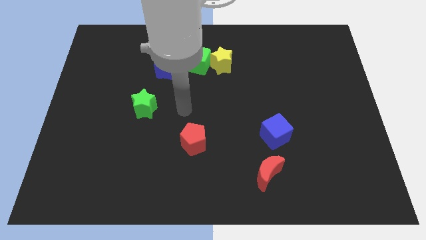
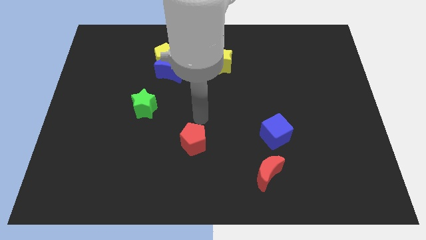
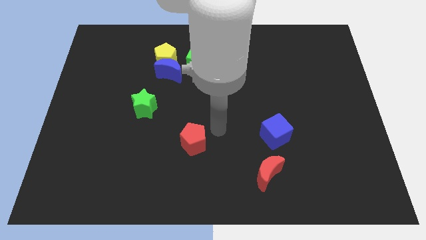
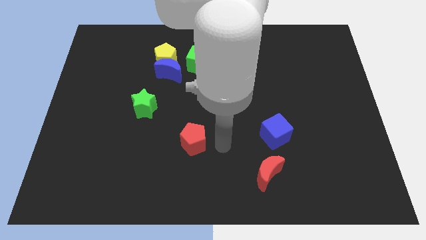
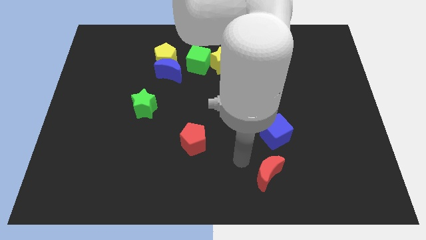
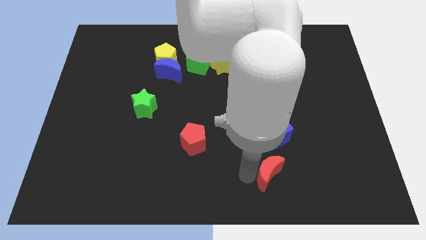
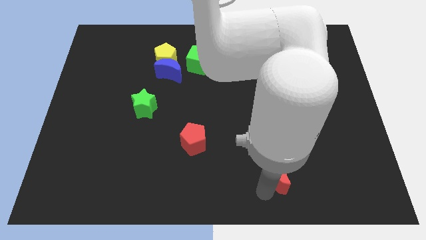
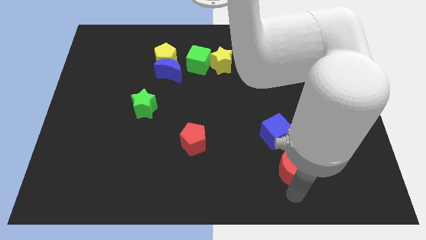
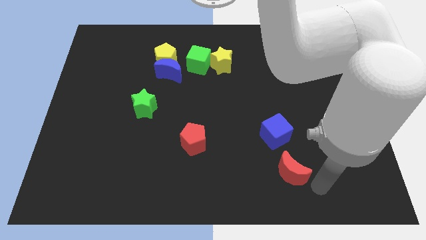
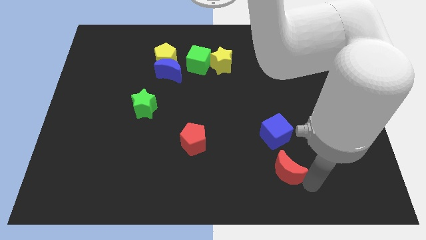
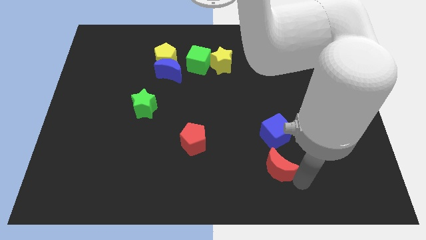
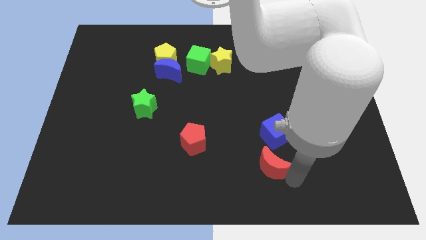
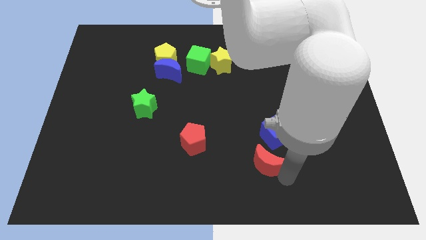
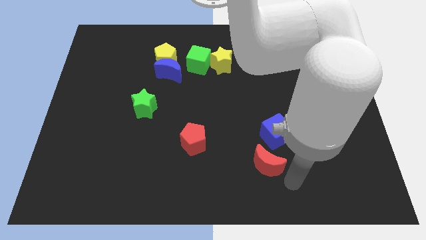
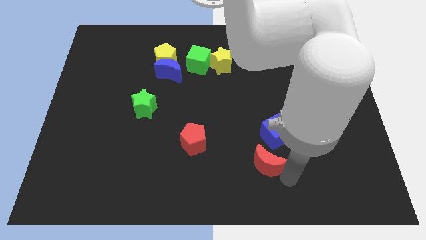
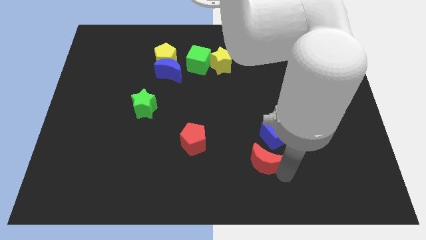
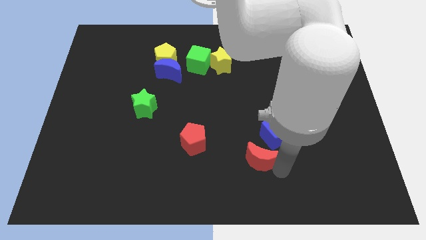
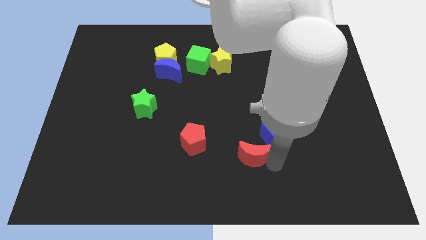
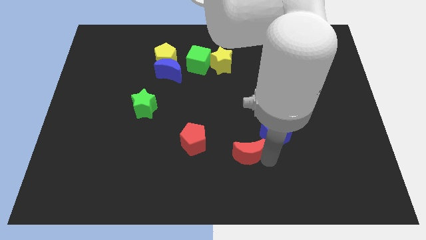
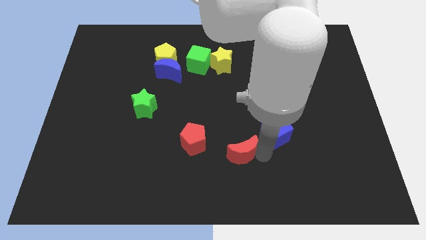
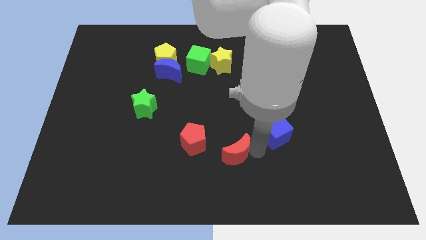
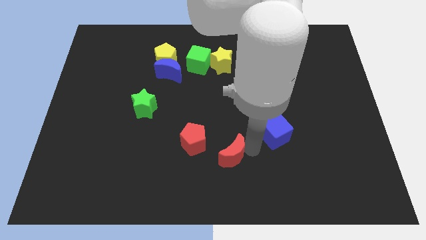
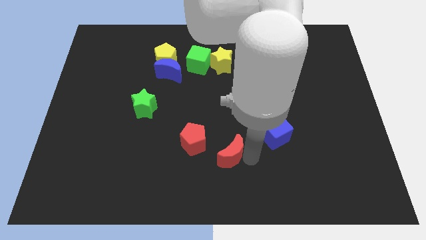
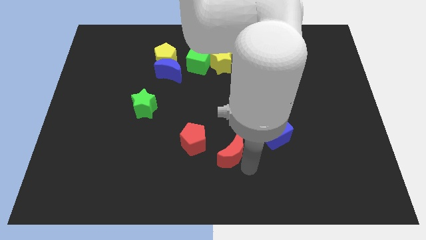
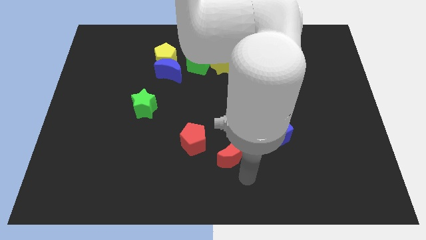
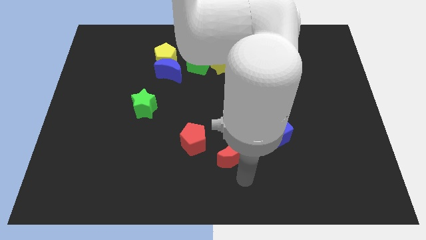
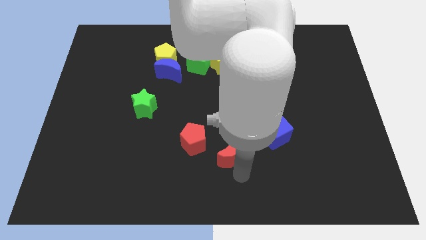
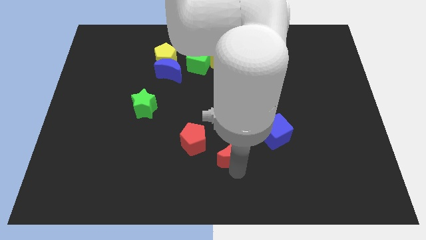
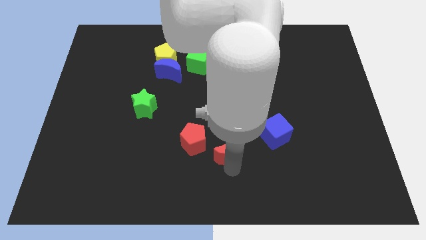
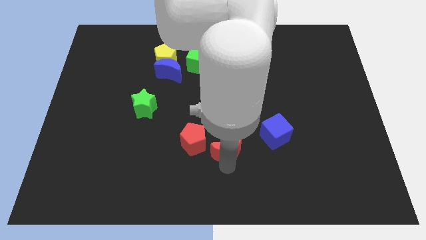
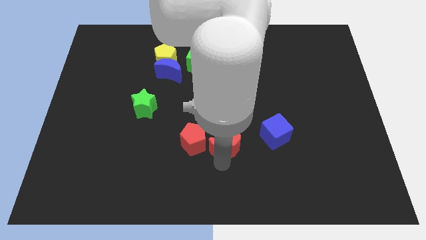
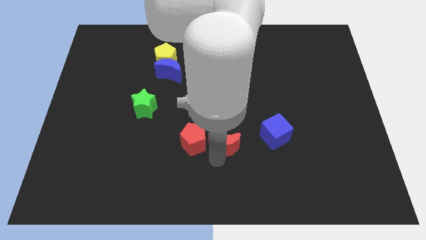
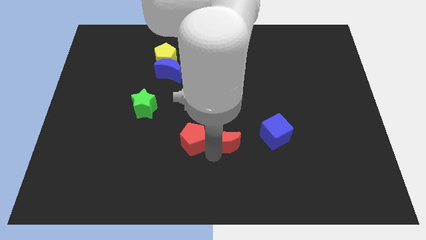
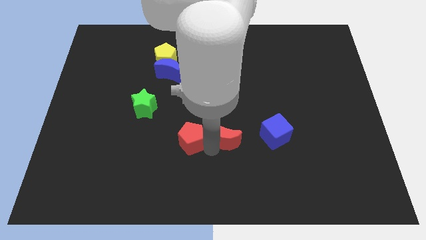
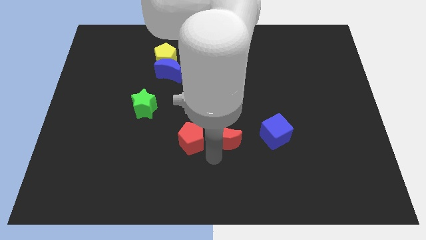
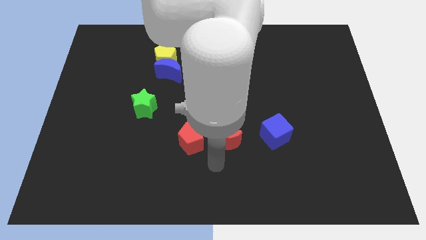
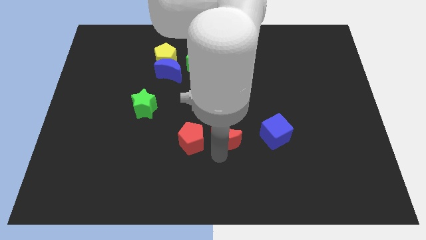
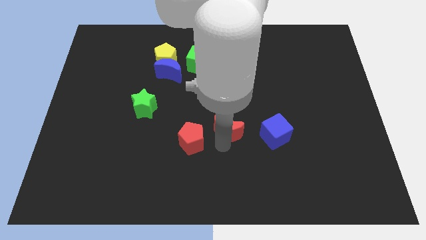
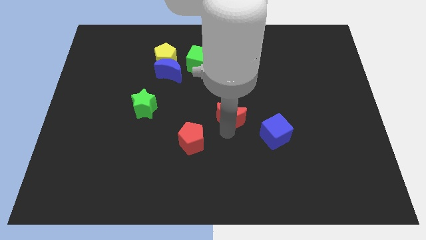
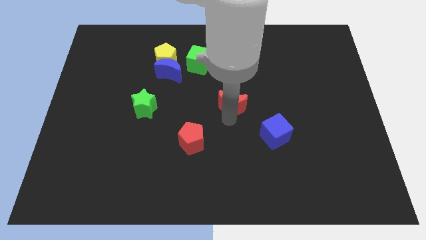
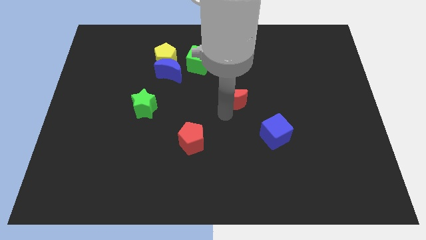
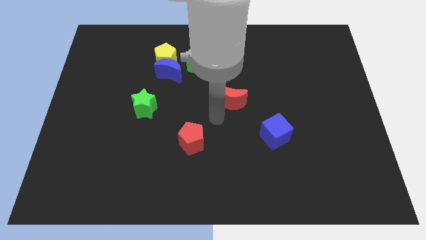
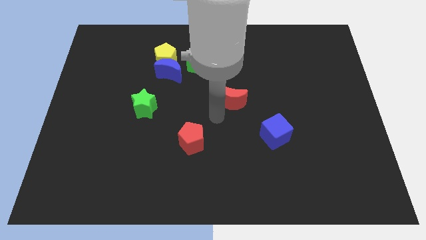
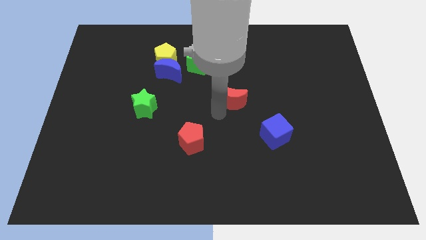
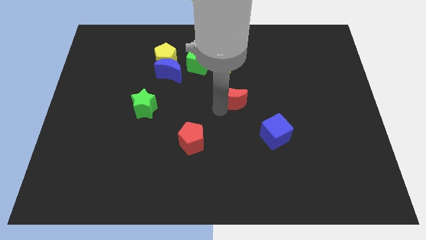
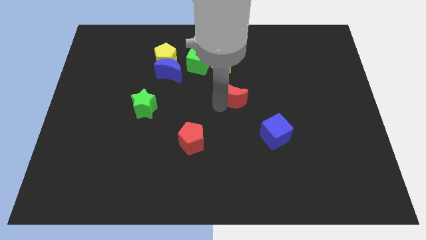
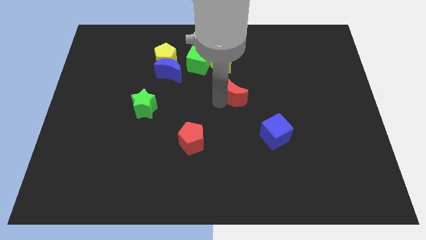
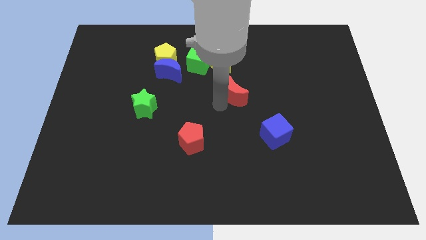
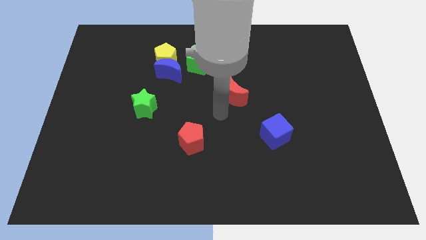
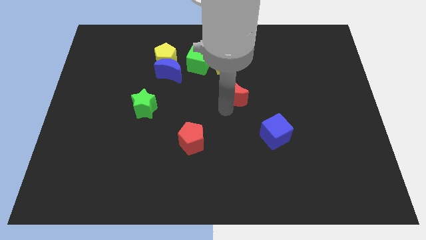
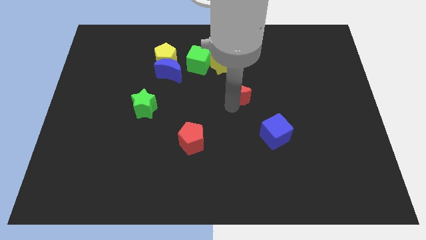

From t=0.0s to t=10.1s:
push the red moon upwards

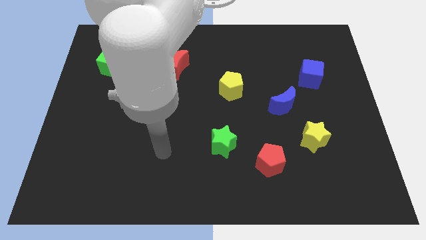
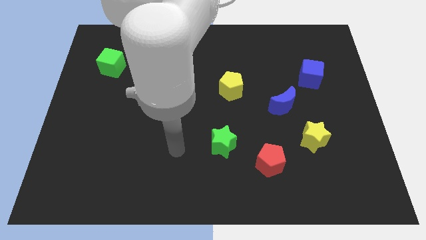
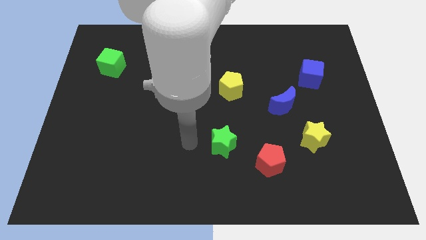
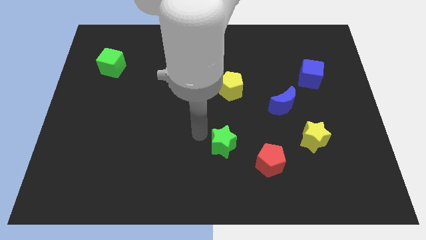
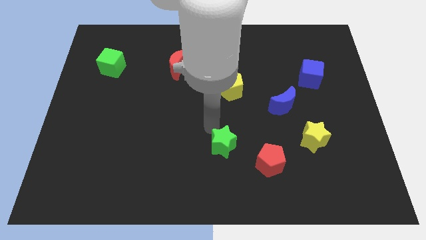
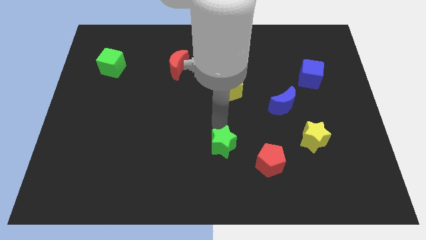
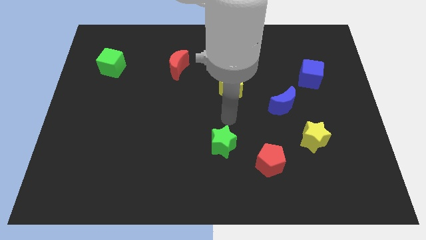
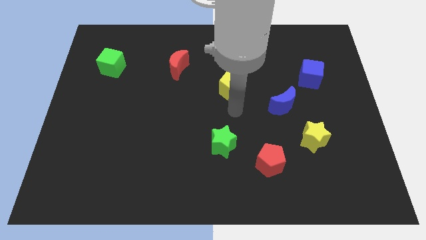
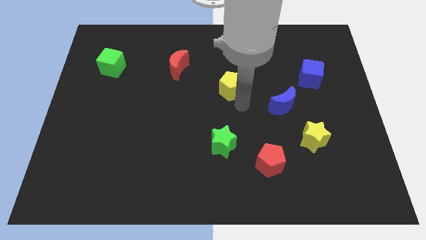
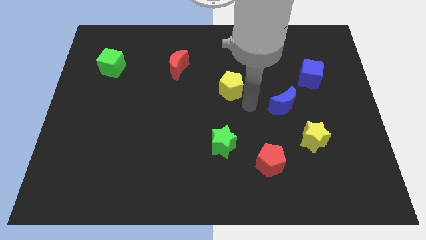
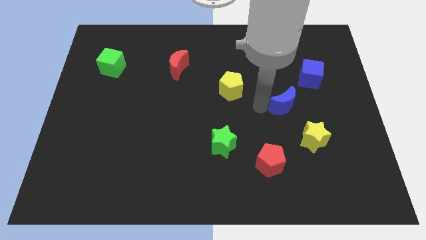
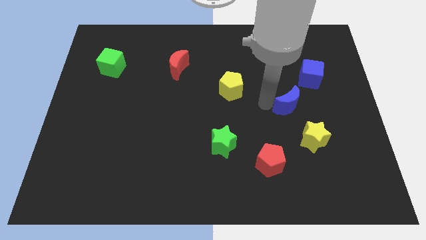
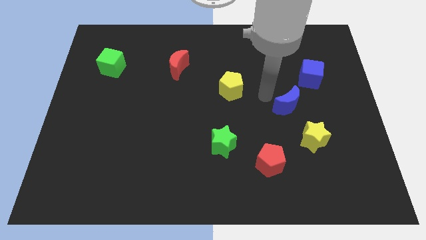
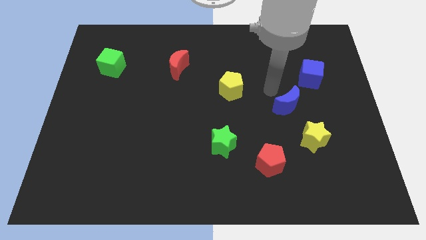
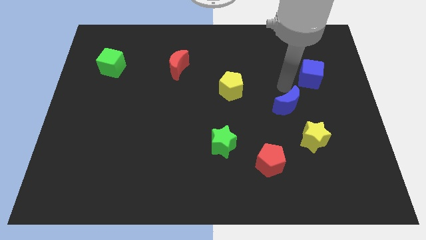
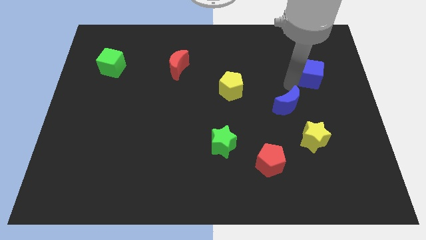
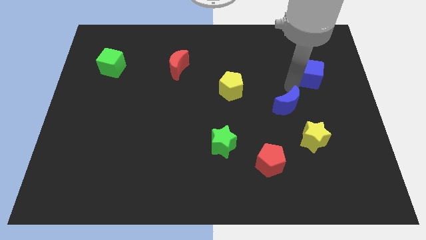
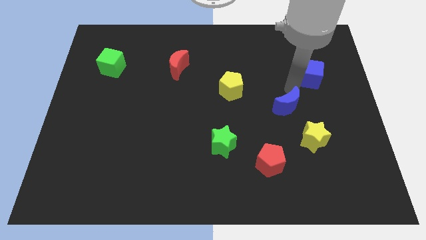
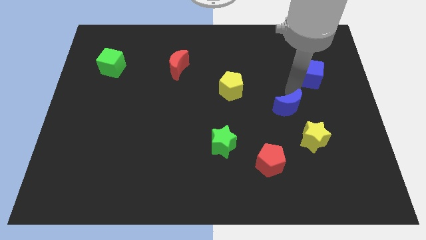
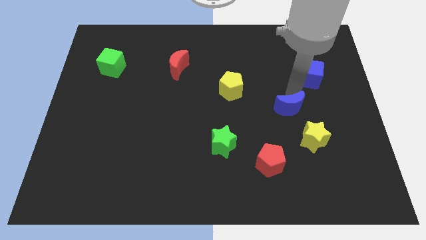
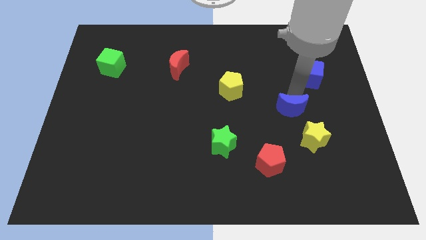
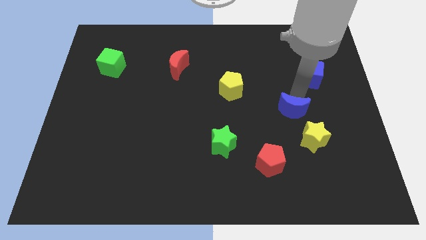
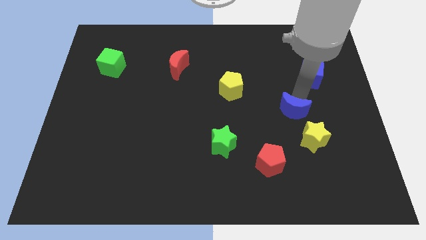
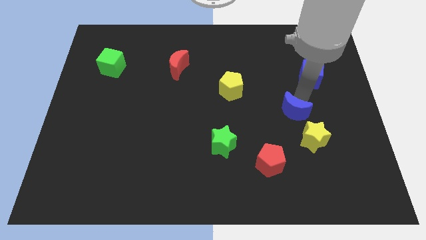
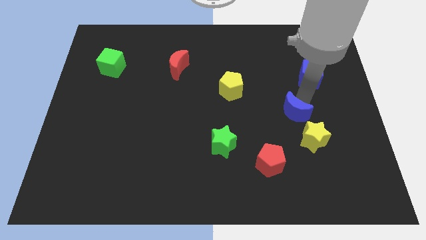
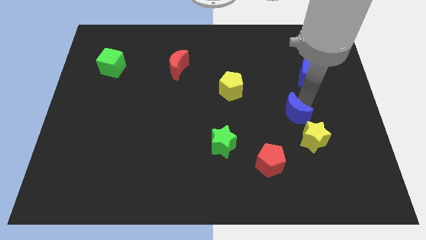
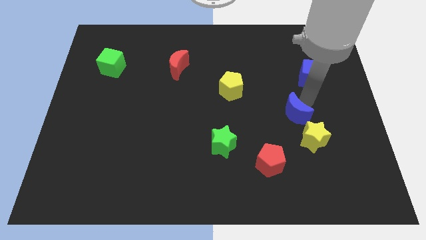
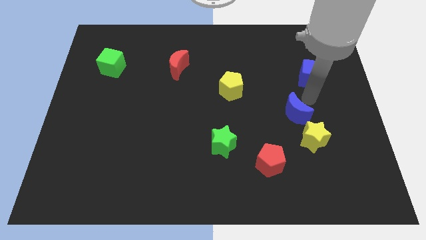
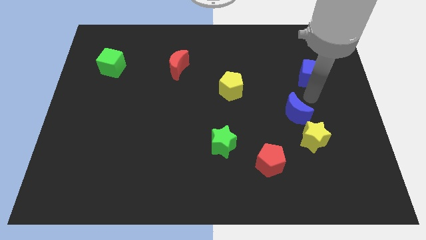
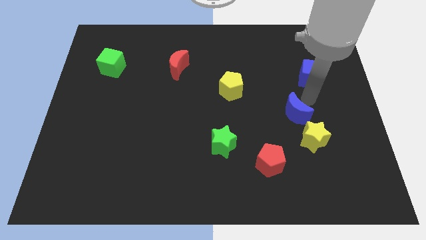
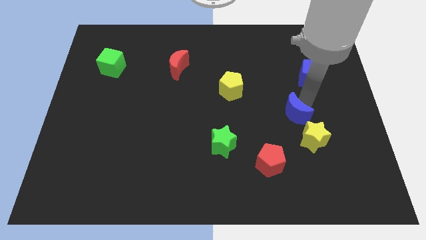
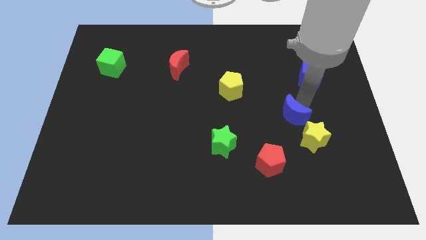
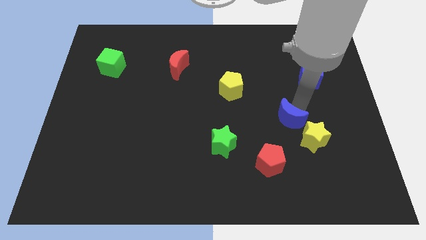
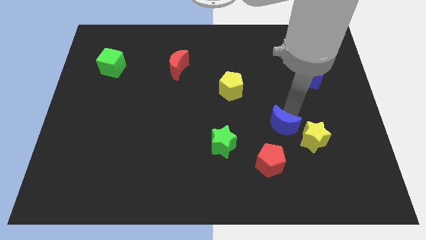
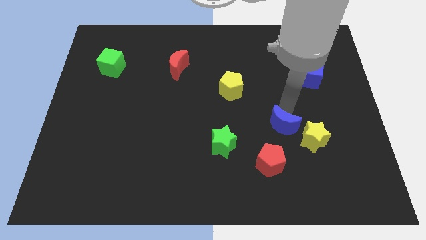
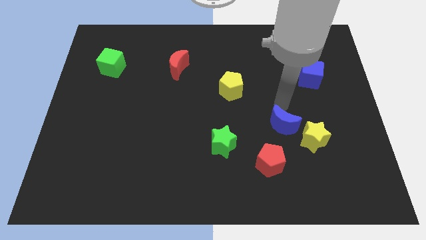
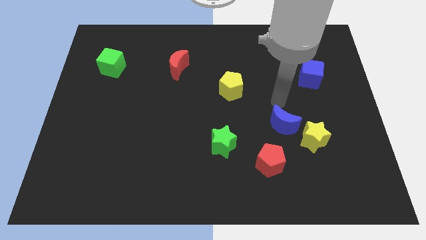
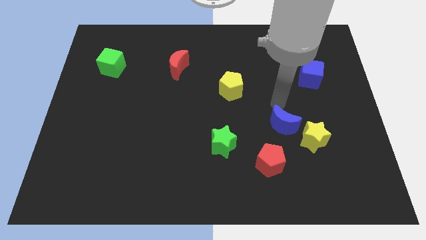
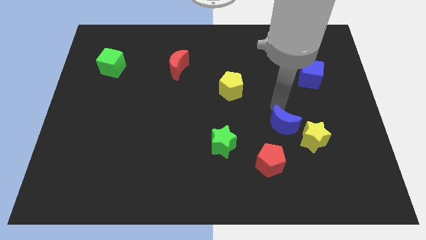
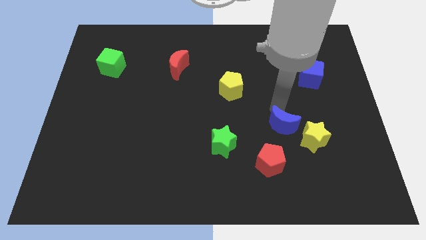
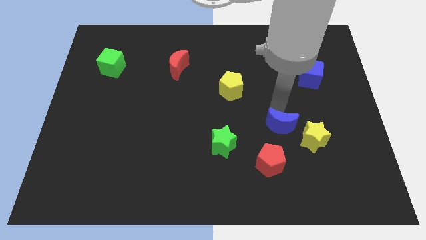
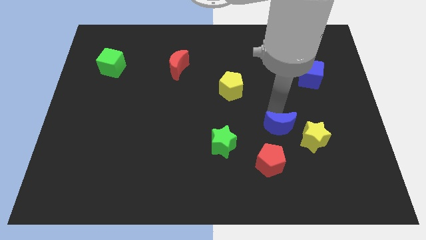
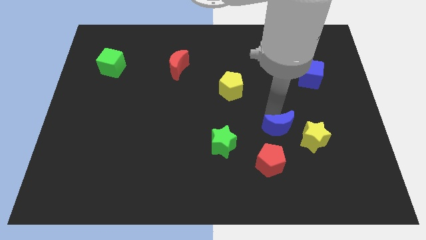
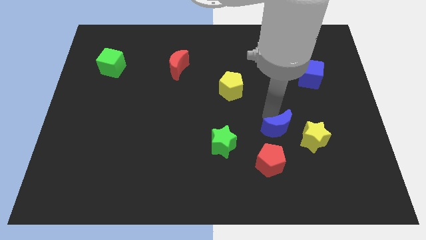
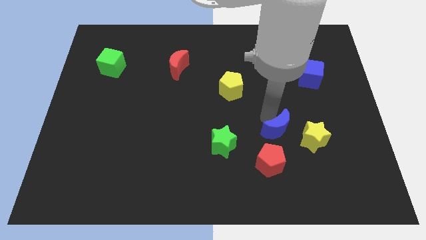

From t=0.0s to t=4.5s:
slide the blue moon down a little
